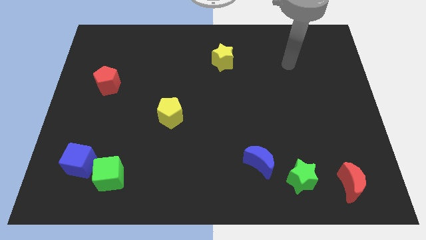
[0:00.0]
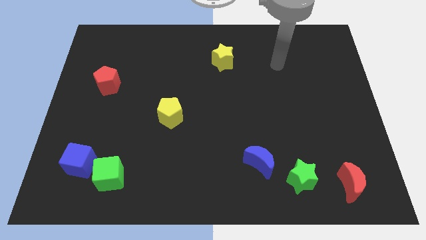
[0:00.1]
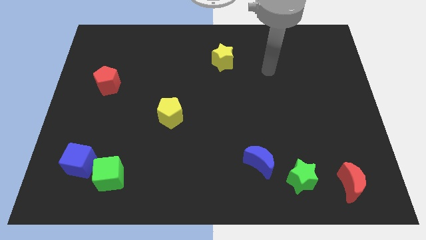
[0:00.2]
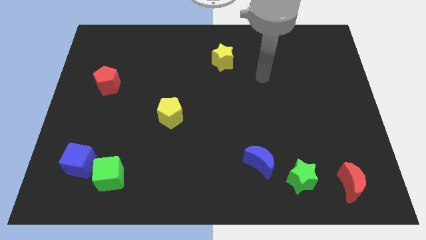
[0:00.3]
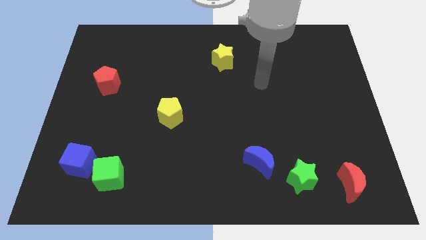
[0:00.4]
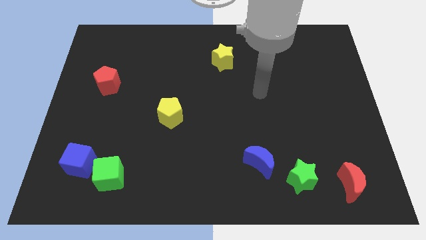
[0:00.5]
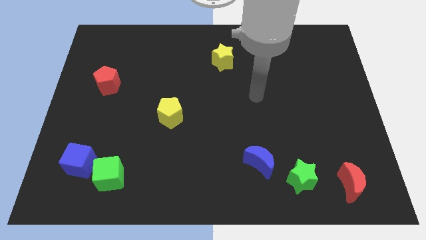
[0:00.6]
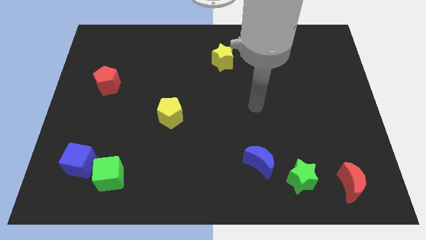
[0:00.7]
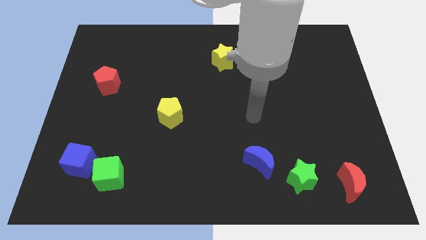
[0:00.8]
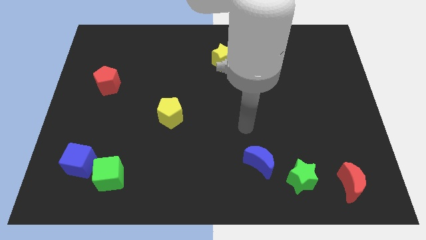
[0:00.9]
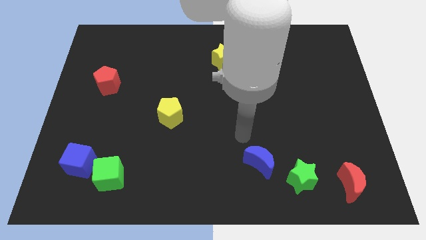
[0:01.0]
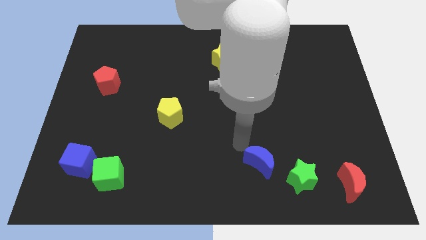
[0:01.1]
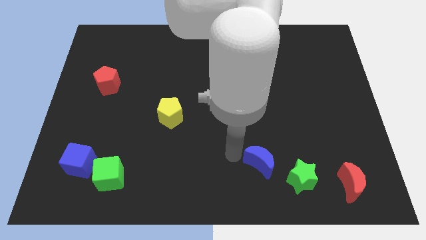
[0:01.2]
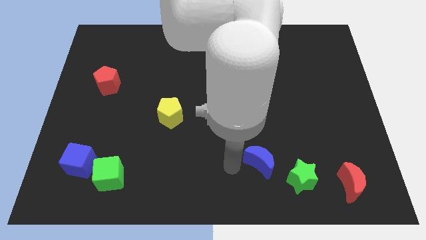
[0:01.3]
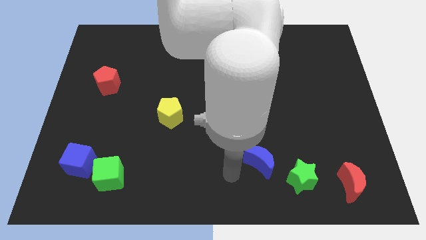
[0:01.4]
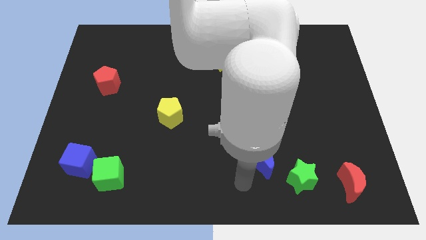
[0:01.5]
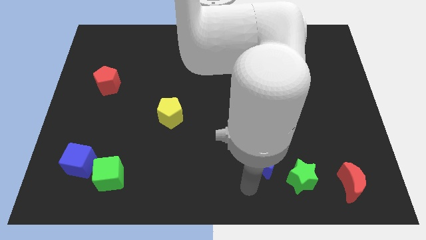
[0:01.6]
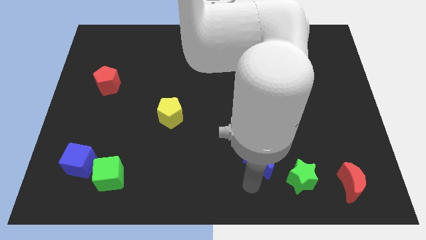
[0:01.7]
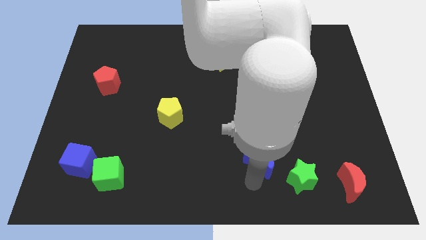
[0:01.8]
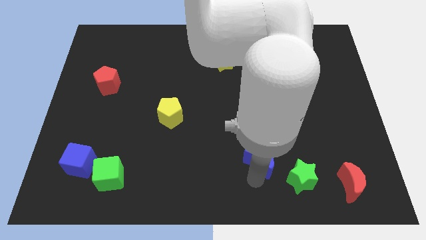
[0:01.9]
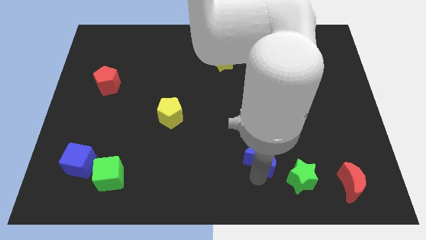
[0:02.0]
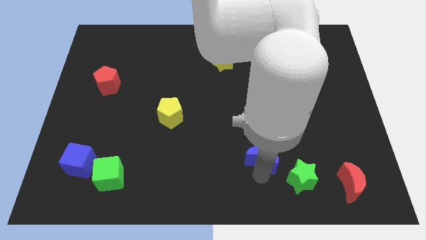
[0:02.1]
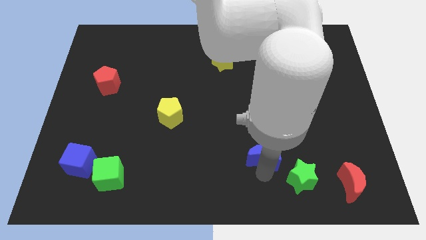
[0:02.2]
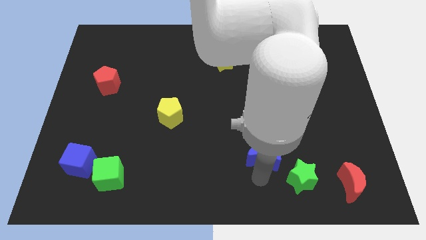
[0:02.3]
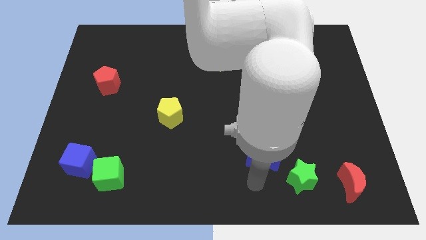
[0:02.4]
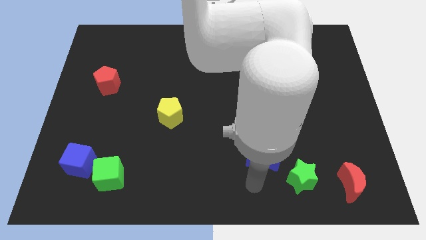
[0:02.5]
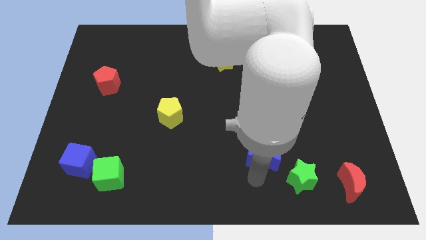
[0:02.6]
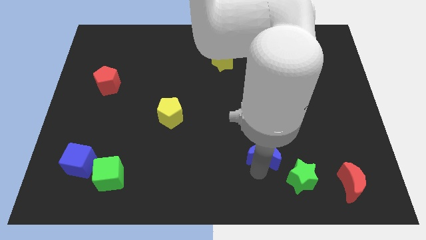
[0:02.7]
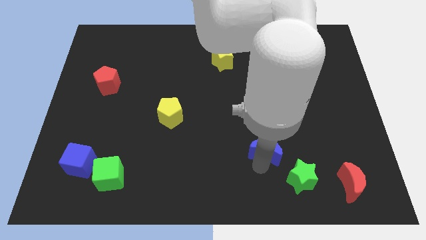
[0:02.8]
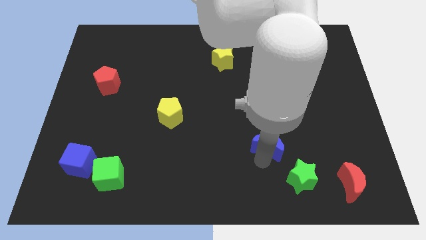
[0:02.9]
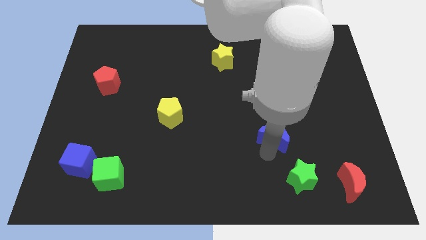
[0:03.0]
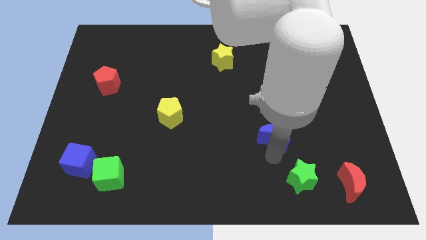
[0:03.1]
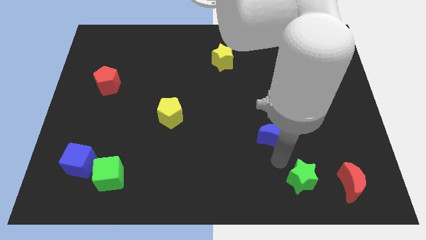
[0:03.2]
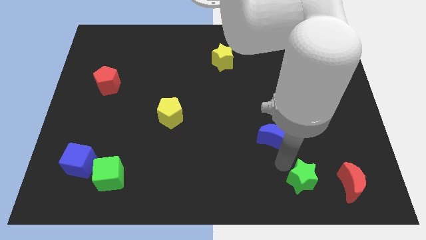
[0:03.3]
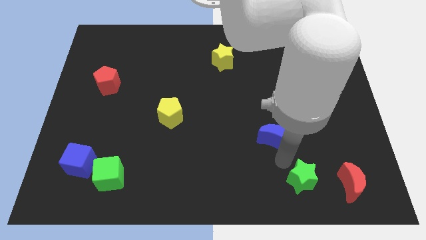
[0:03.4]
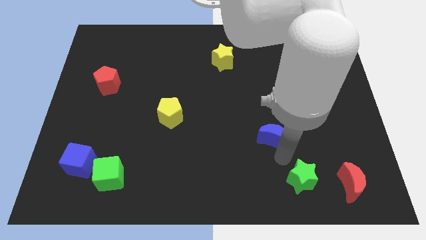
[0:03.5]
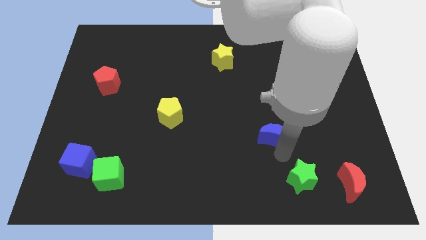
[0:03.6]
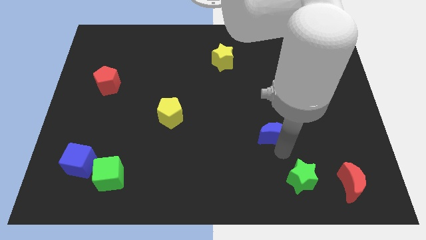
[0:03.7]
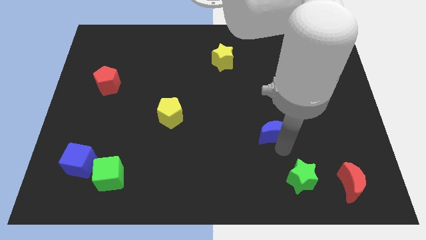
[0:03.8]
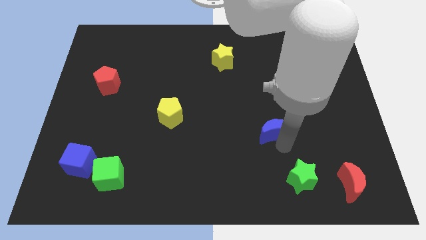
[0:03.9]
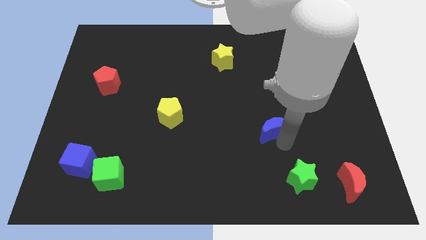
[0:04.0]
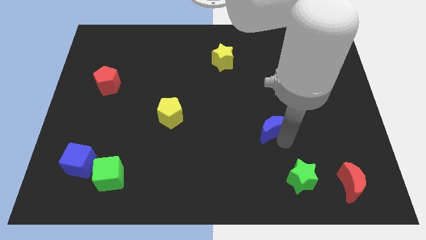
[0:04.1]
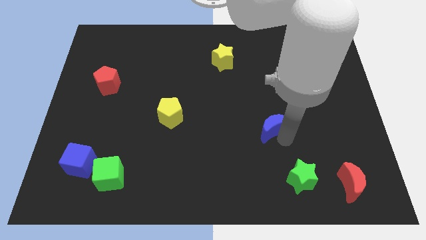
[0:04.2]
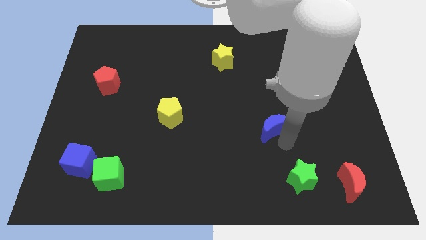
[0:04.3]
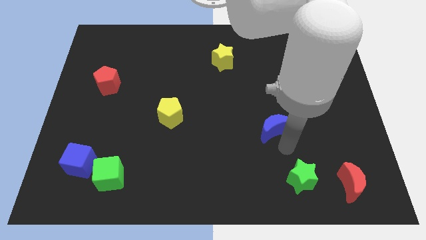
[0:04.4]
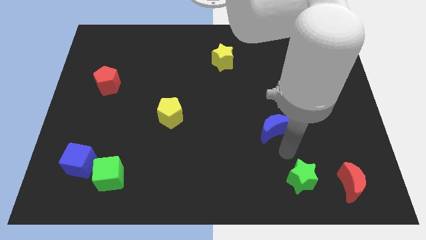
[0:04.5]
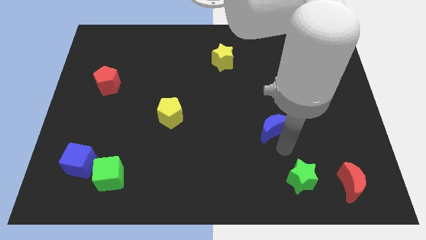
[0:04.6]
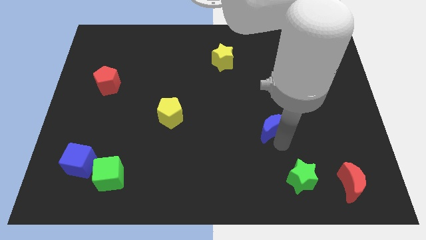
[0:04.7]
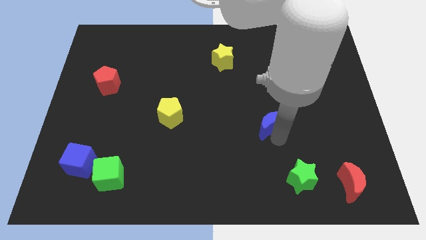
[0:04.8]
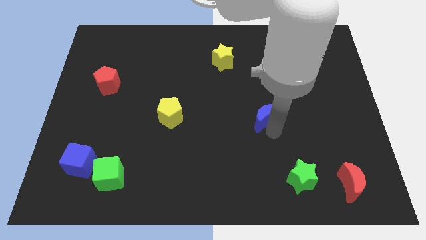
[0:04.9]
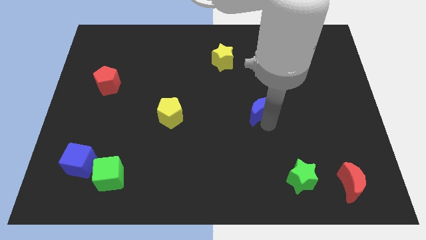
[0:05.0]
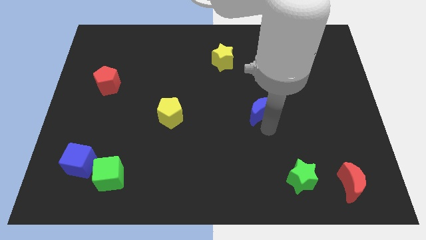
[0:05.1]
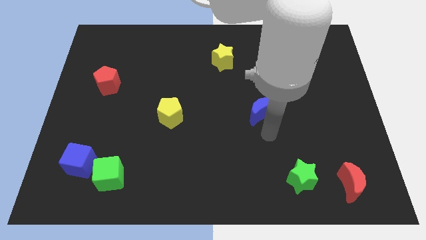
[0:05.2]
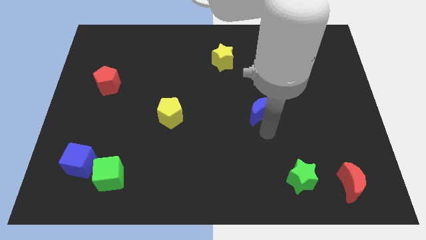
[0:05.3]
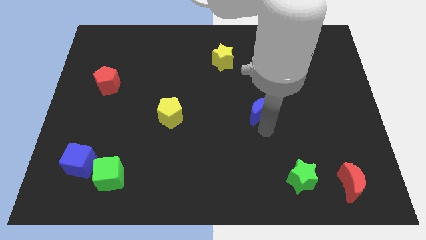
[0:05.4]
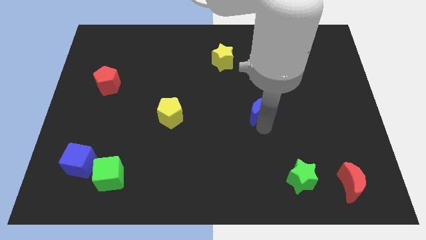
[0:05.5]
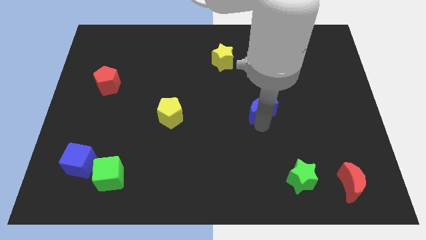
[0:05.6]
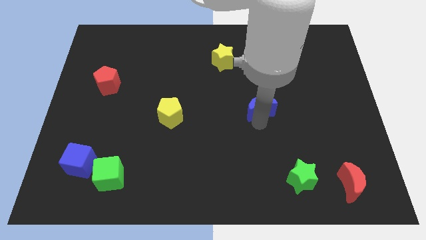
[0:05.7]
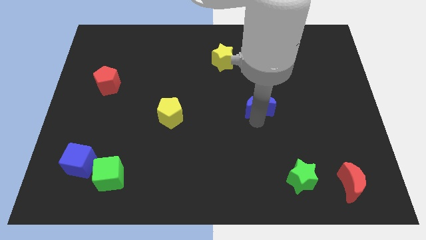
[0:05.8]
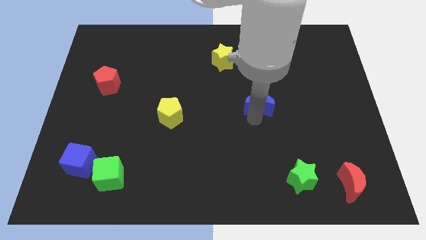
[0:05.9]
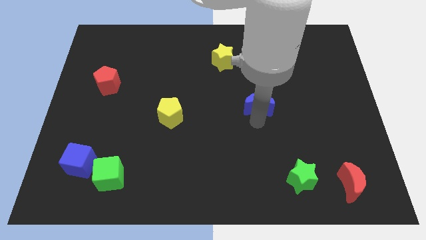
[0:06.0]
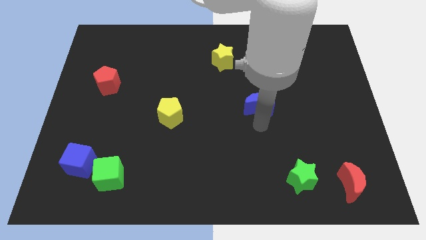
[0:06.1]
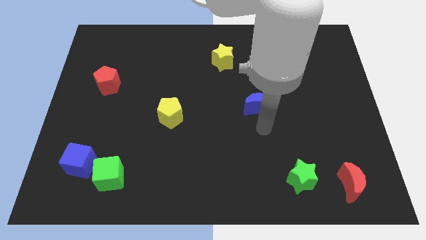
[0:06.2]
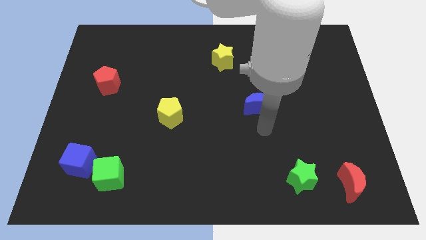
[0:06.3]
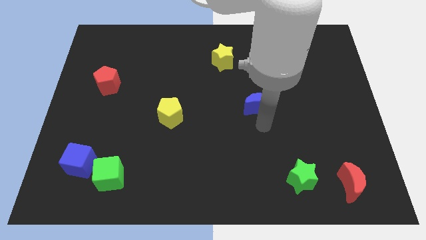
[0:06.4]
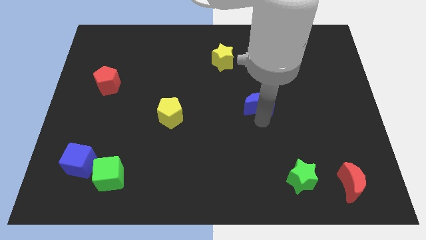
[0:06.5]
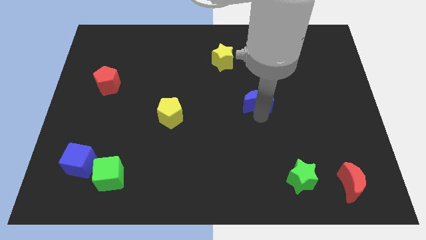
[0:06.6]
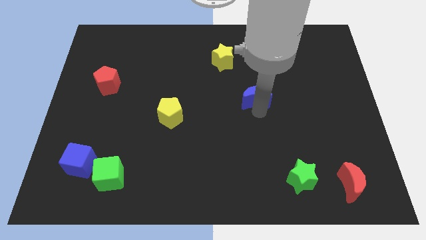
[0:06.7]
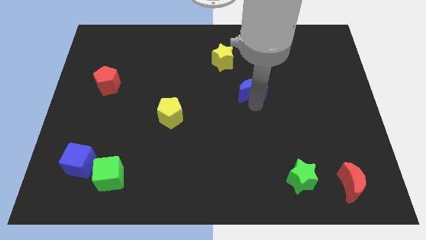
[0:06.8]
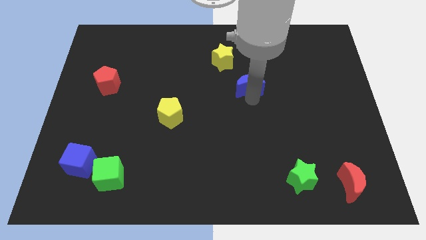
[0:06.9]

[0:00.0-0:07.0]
push the blue moon up

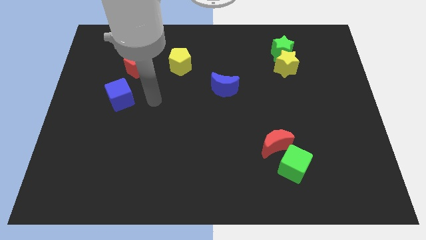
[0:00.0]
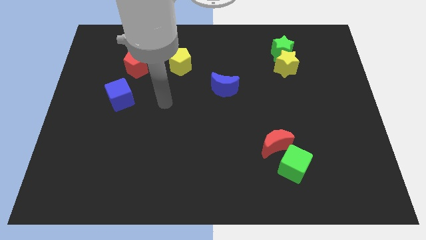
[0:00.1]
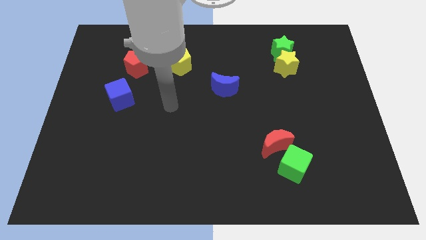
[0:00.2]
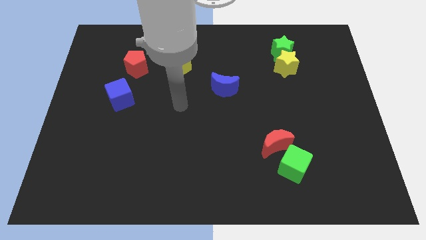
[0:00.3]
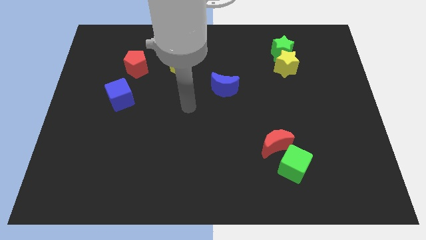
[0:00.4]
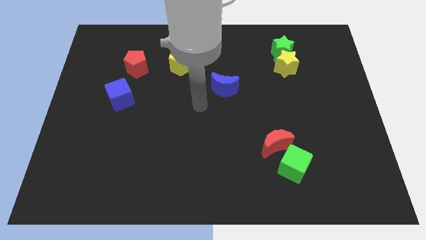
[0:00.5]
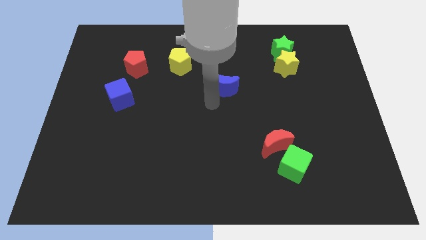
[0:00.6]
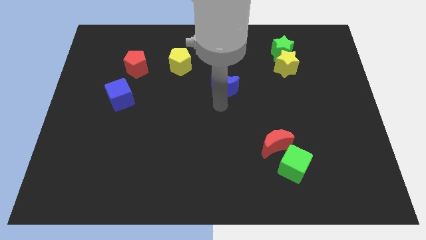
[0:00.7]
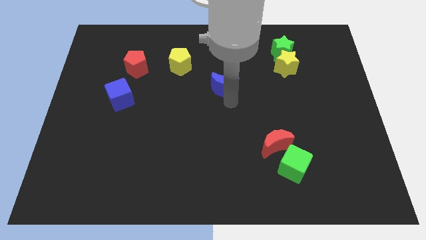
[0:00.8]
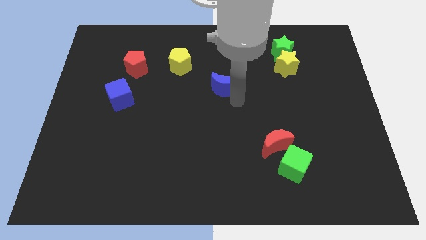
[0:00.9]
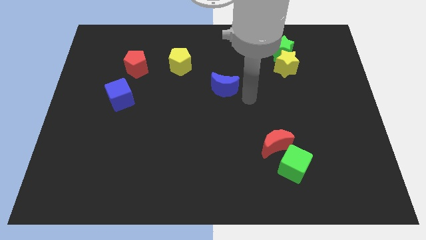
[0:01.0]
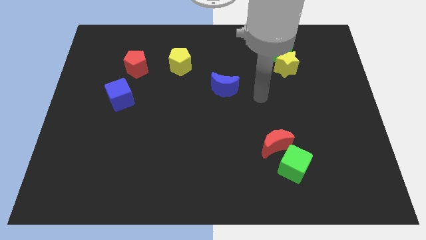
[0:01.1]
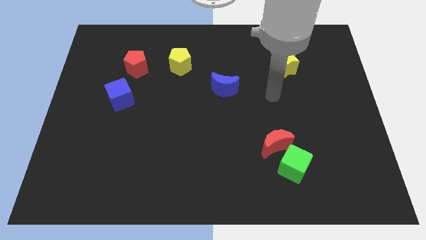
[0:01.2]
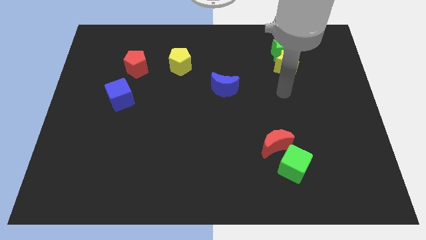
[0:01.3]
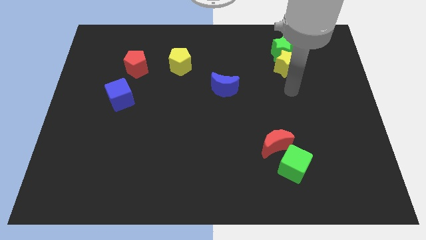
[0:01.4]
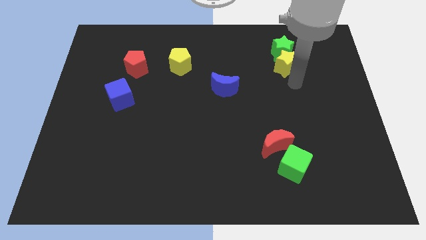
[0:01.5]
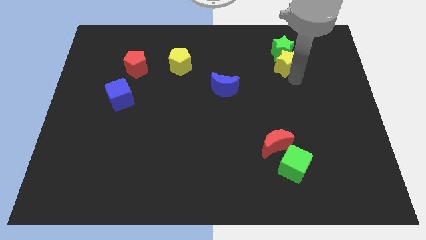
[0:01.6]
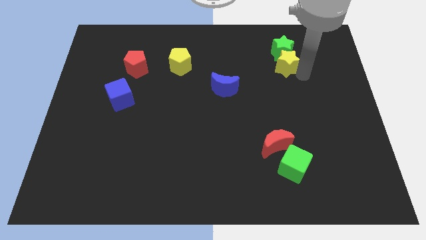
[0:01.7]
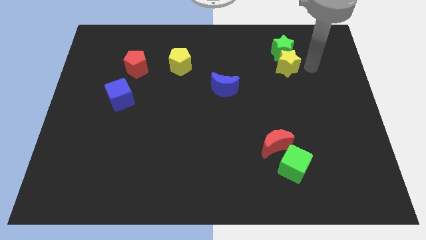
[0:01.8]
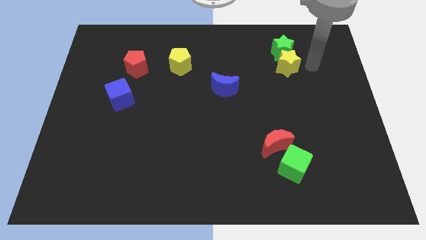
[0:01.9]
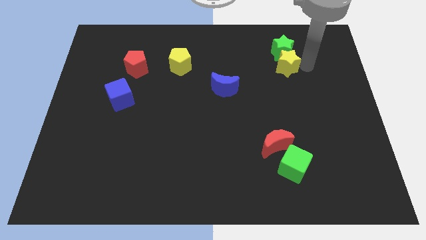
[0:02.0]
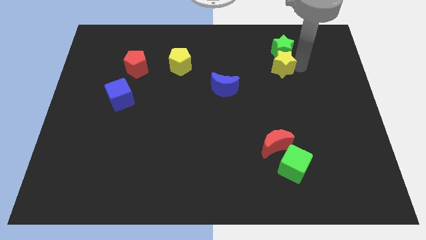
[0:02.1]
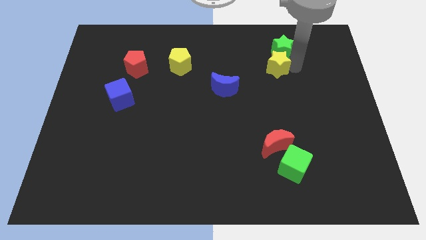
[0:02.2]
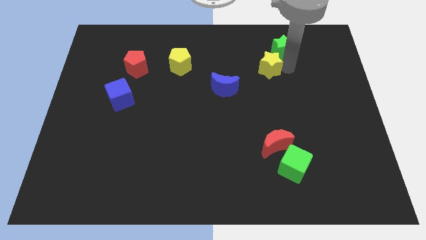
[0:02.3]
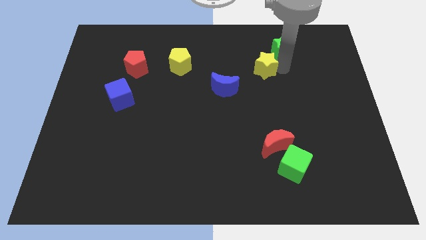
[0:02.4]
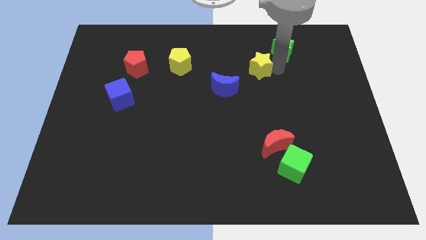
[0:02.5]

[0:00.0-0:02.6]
slide the yellow star a bit to the left
